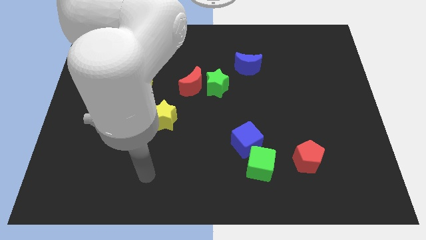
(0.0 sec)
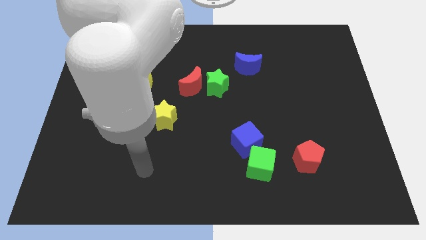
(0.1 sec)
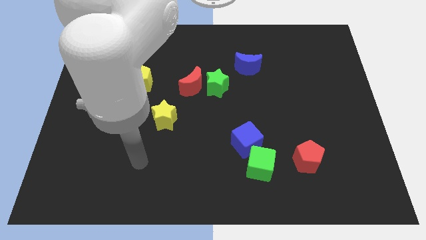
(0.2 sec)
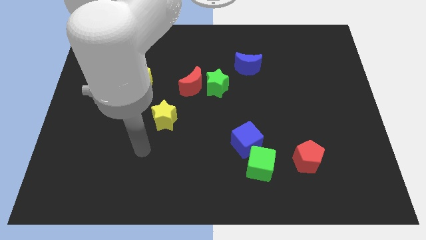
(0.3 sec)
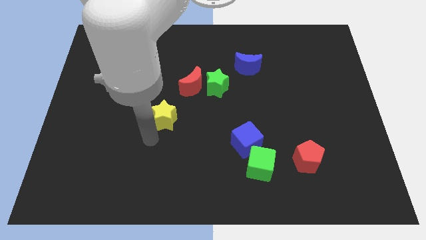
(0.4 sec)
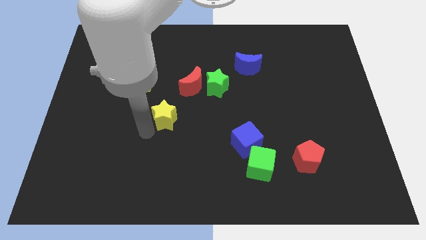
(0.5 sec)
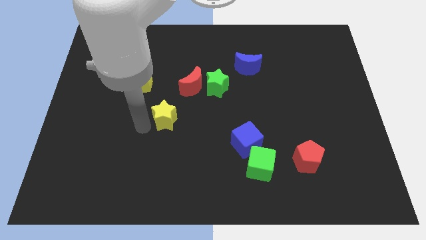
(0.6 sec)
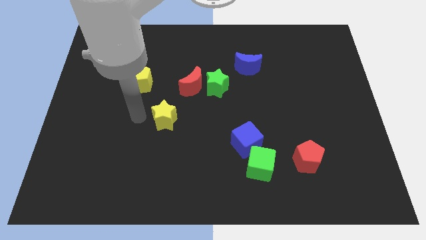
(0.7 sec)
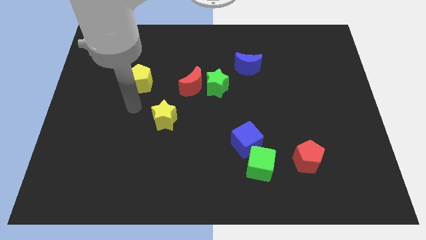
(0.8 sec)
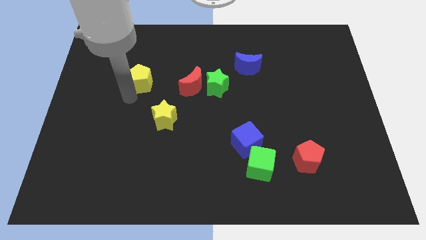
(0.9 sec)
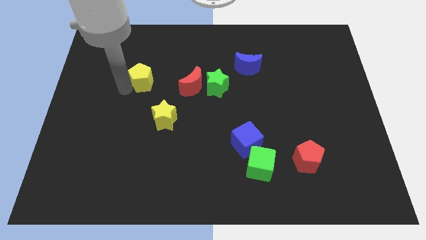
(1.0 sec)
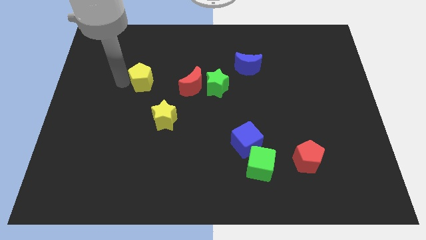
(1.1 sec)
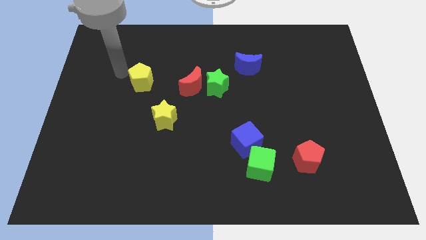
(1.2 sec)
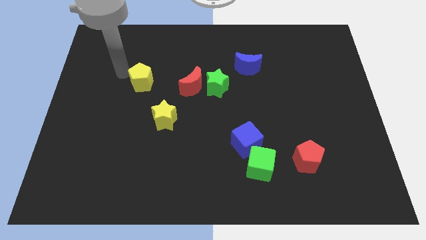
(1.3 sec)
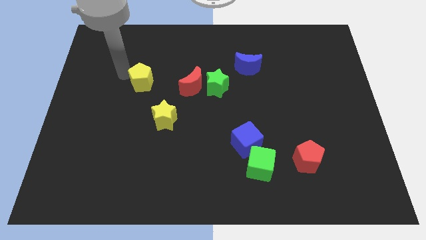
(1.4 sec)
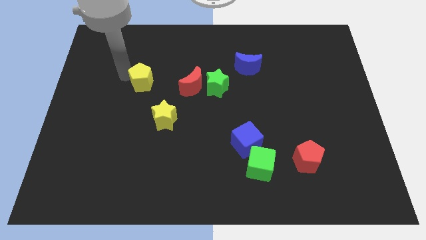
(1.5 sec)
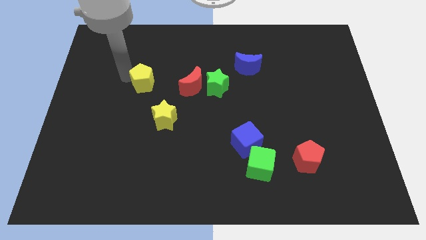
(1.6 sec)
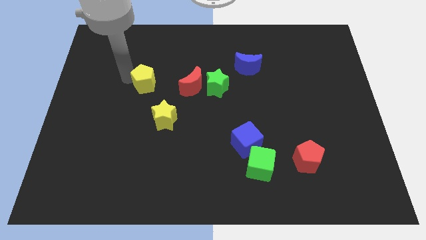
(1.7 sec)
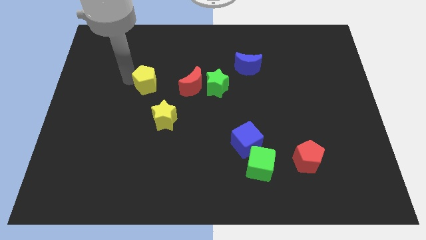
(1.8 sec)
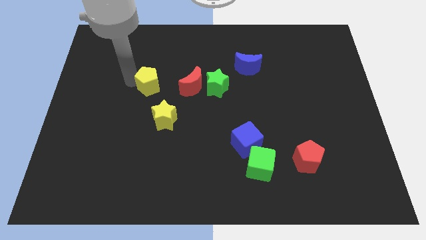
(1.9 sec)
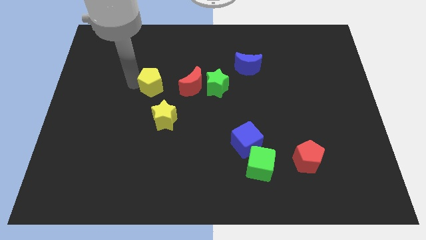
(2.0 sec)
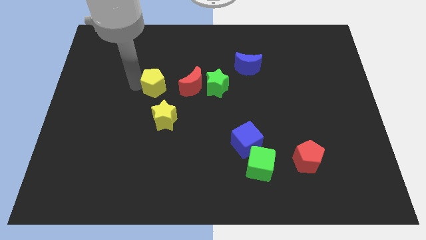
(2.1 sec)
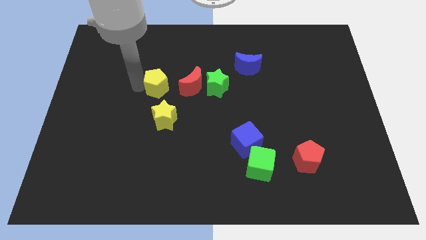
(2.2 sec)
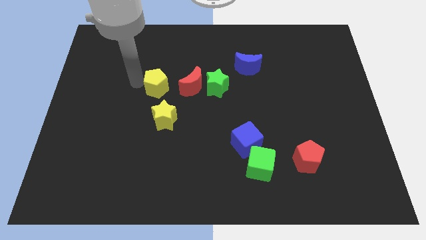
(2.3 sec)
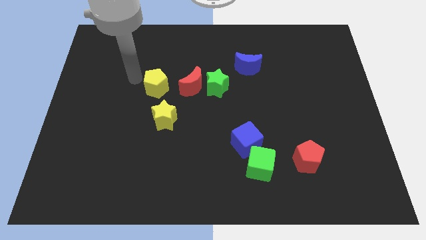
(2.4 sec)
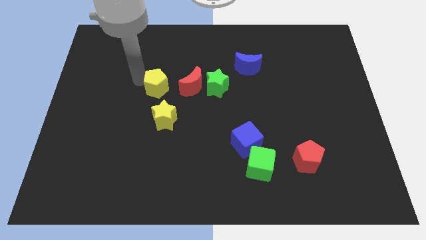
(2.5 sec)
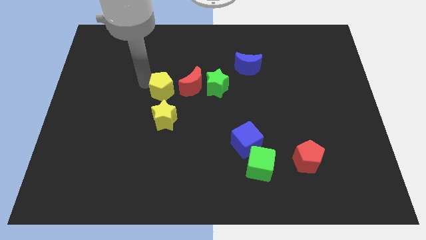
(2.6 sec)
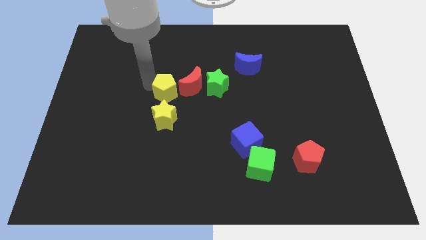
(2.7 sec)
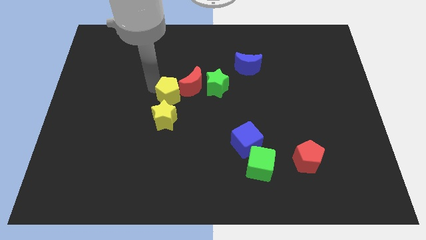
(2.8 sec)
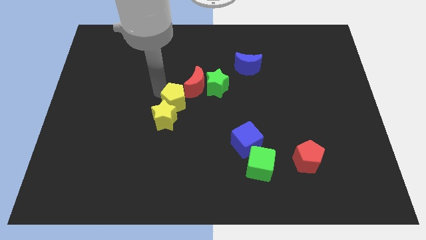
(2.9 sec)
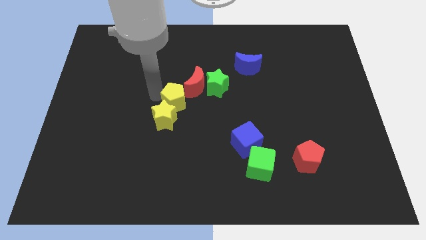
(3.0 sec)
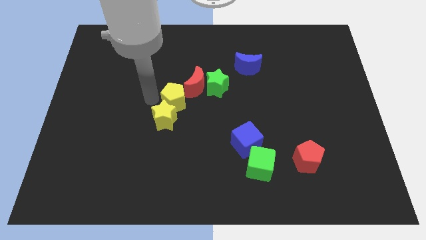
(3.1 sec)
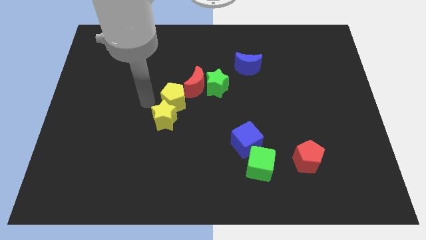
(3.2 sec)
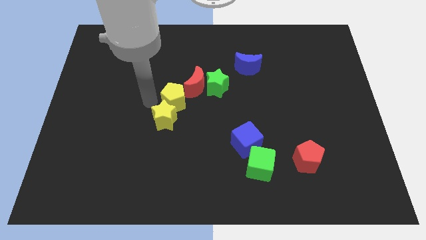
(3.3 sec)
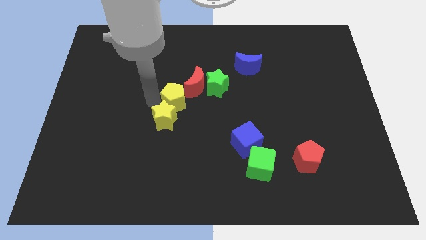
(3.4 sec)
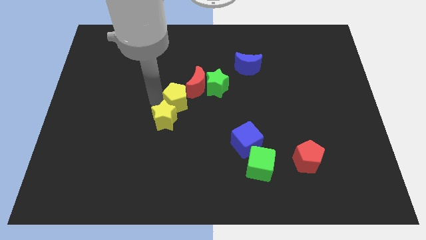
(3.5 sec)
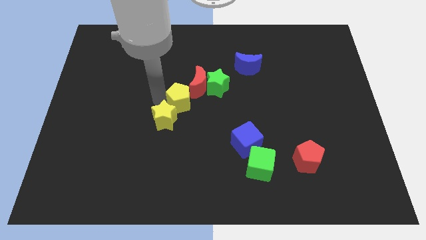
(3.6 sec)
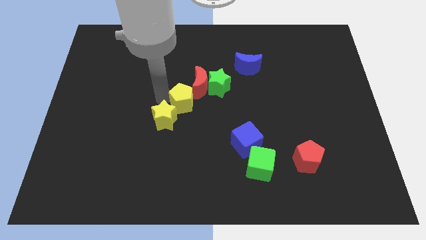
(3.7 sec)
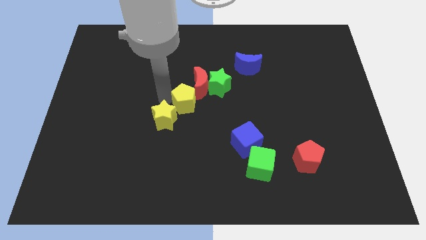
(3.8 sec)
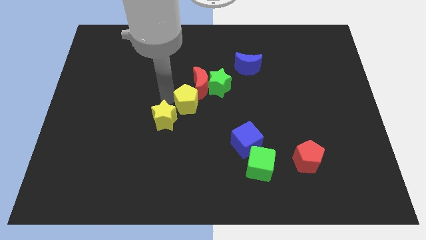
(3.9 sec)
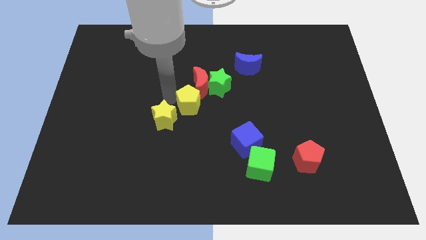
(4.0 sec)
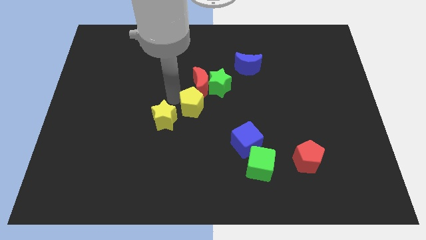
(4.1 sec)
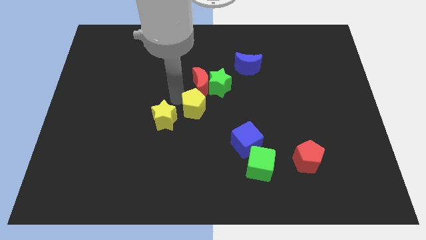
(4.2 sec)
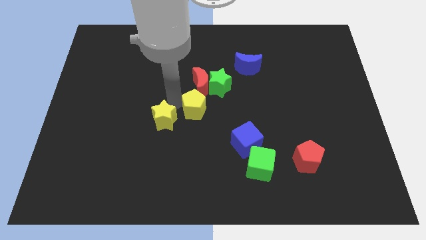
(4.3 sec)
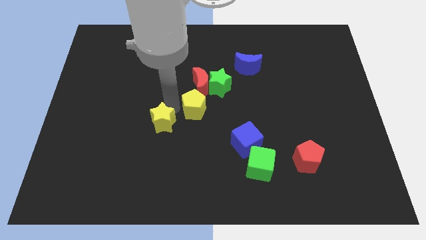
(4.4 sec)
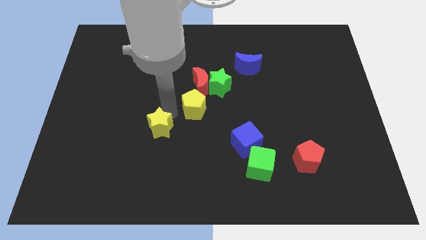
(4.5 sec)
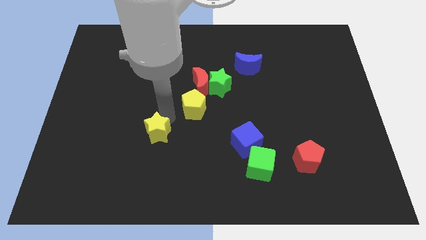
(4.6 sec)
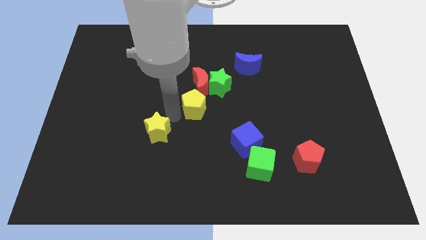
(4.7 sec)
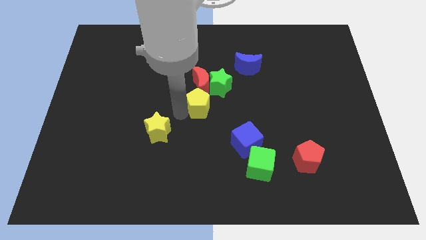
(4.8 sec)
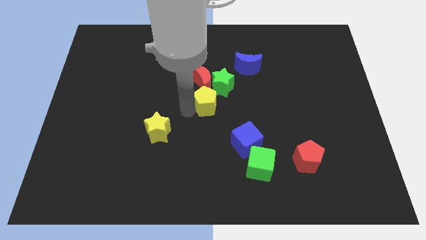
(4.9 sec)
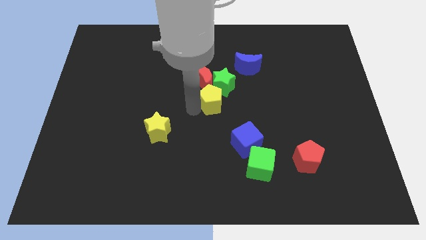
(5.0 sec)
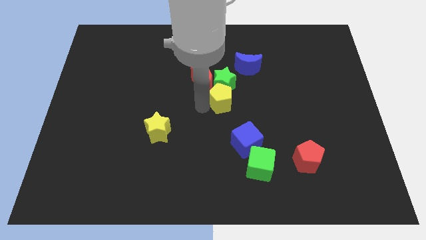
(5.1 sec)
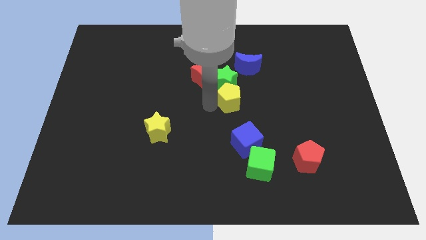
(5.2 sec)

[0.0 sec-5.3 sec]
slide the yellow pentagon to the right

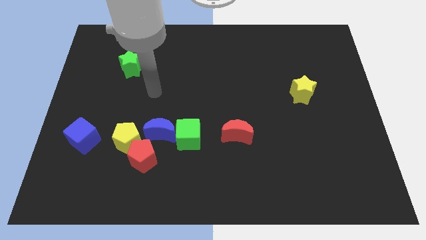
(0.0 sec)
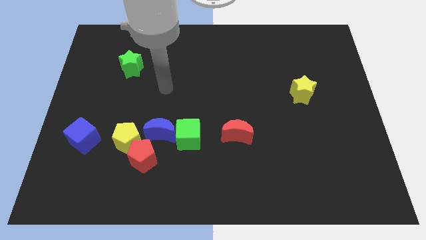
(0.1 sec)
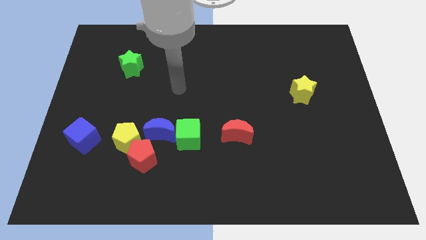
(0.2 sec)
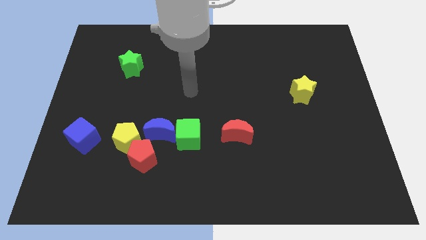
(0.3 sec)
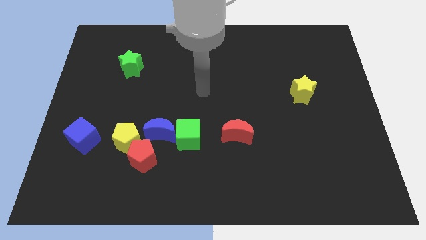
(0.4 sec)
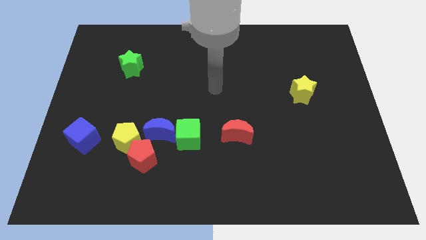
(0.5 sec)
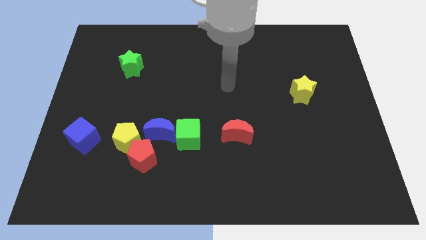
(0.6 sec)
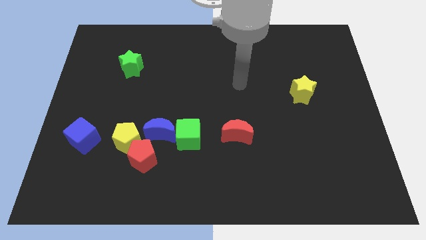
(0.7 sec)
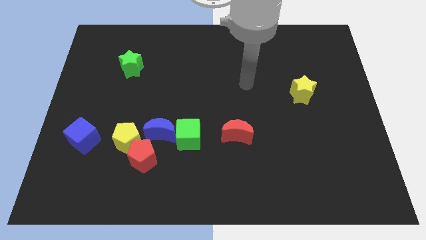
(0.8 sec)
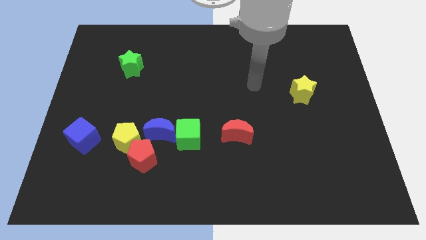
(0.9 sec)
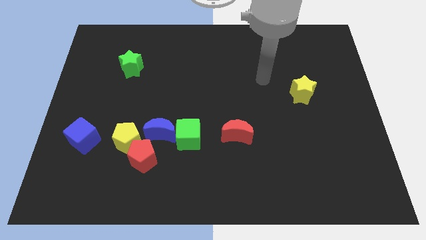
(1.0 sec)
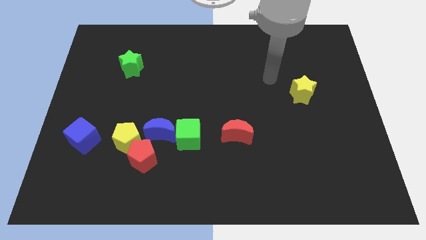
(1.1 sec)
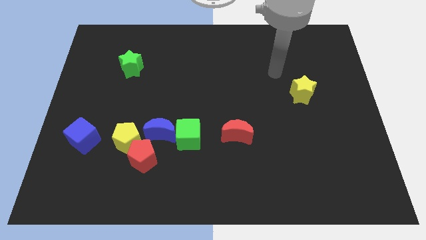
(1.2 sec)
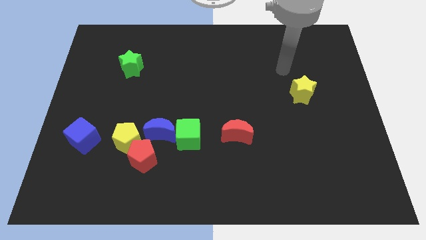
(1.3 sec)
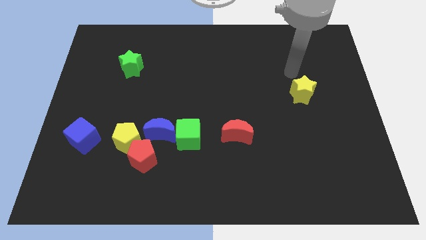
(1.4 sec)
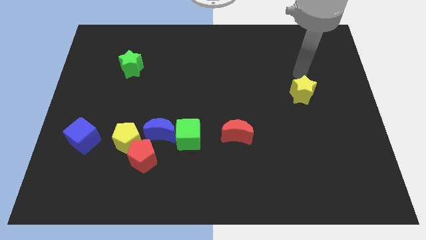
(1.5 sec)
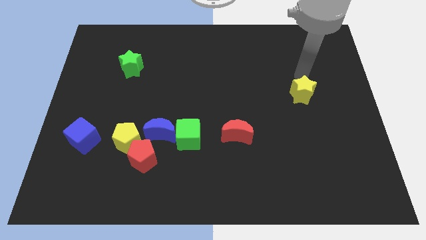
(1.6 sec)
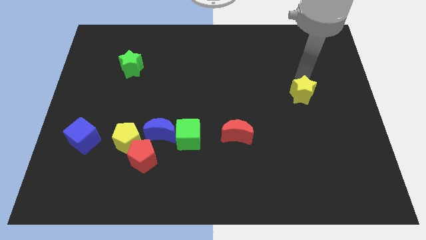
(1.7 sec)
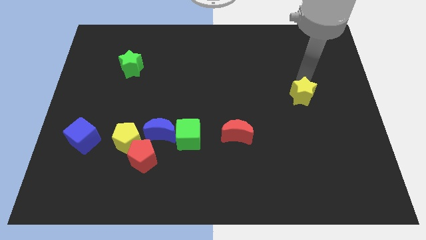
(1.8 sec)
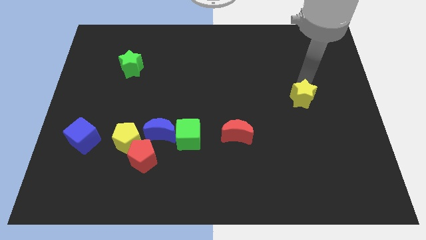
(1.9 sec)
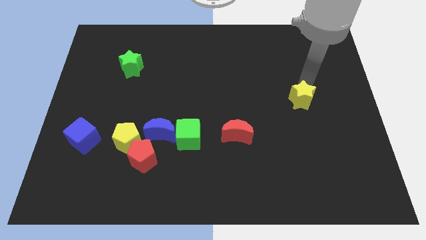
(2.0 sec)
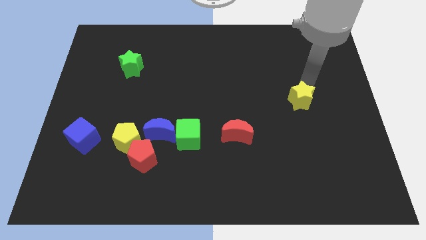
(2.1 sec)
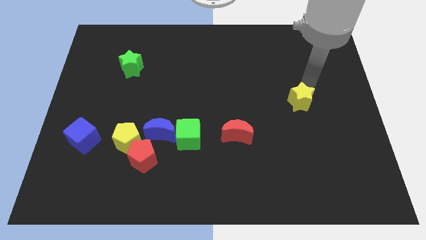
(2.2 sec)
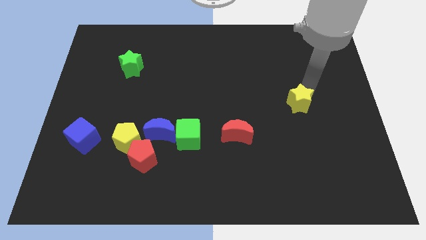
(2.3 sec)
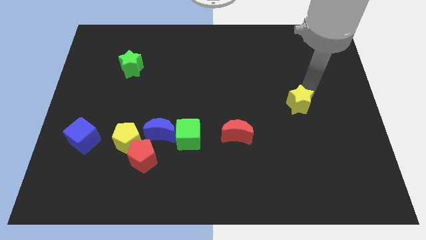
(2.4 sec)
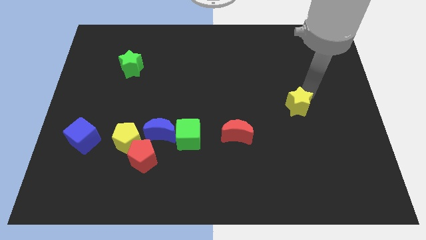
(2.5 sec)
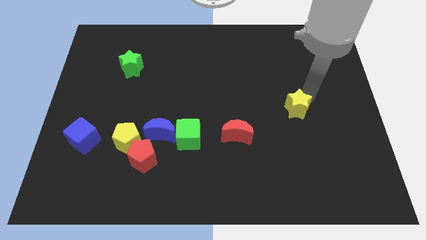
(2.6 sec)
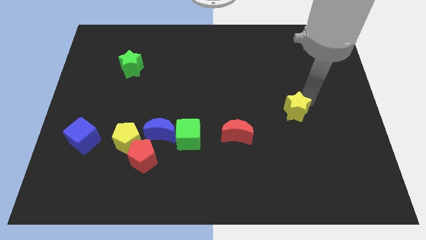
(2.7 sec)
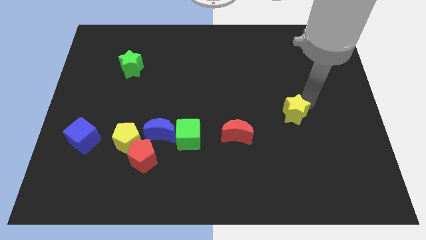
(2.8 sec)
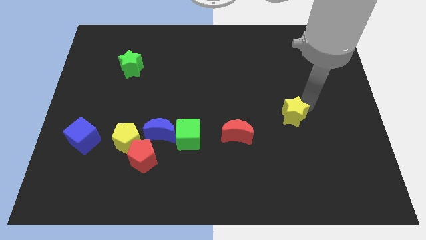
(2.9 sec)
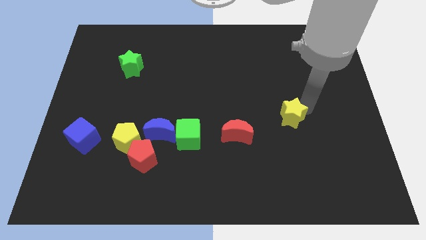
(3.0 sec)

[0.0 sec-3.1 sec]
push the yellow star downwards a little
